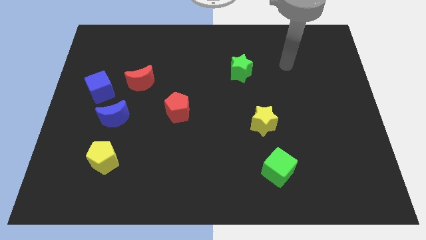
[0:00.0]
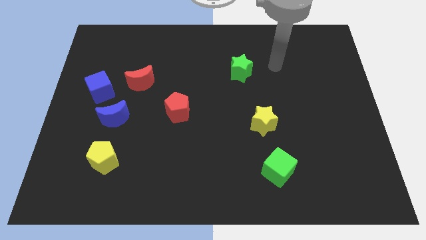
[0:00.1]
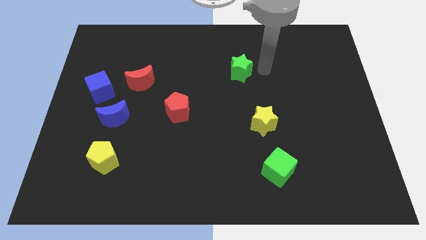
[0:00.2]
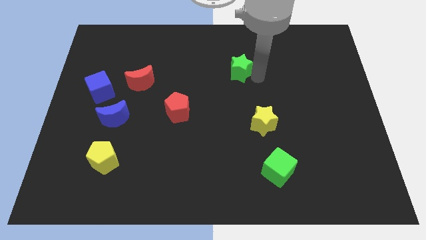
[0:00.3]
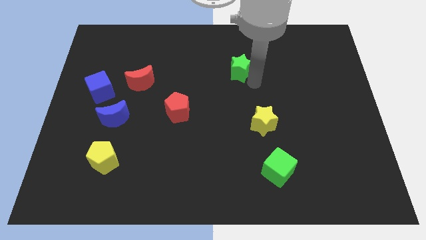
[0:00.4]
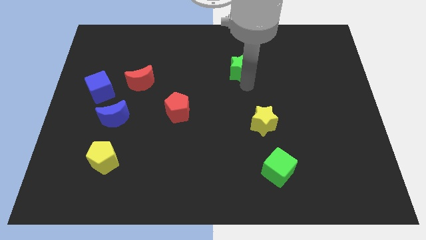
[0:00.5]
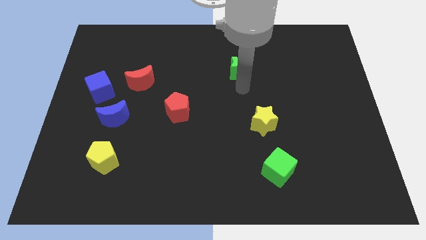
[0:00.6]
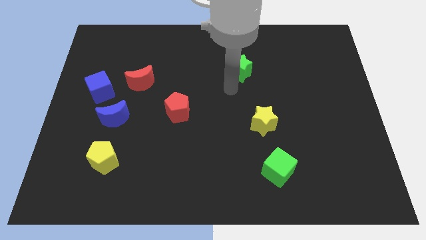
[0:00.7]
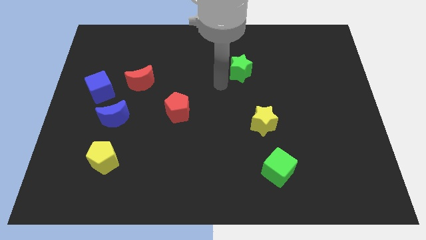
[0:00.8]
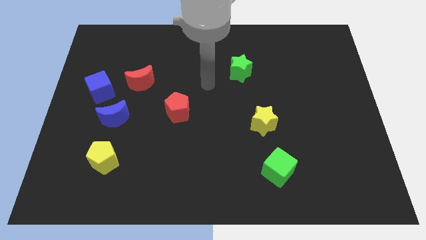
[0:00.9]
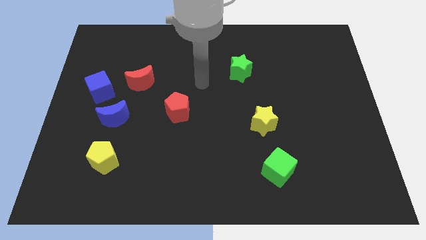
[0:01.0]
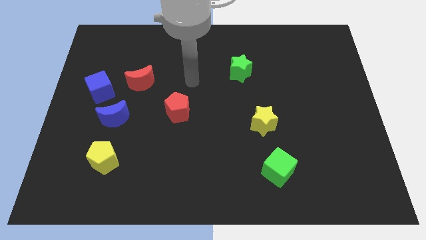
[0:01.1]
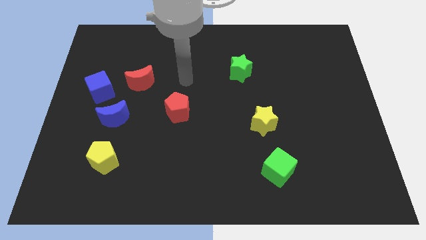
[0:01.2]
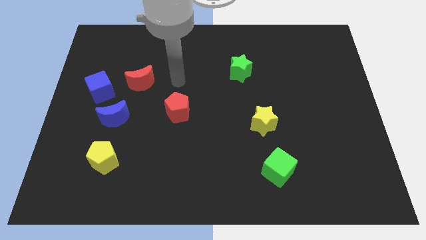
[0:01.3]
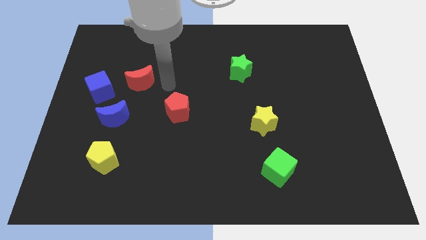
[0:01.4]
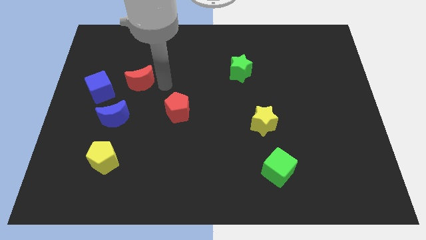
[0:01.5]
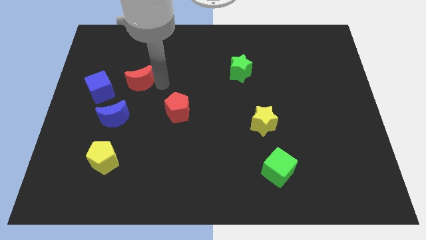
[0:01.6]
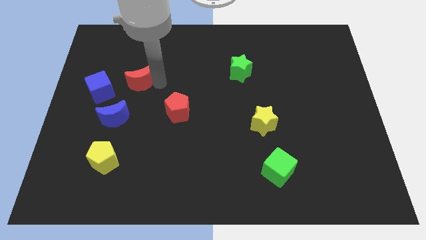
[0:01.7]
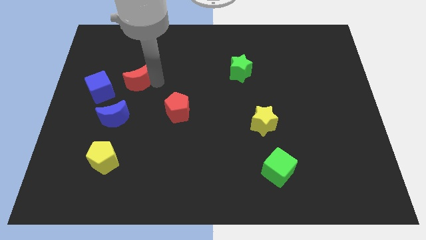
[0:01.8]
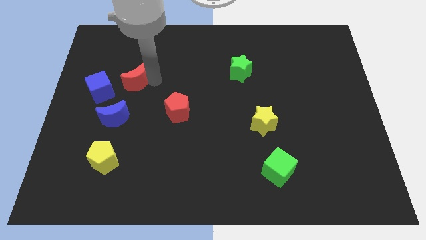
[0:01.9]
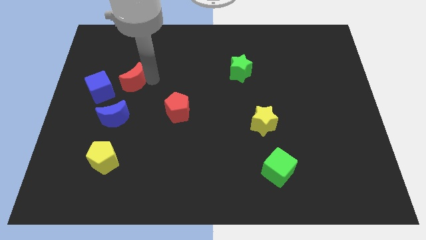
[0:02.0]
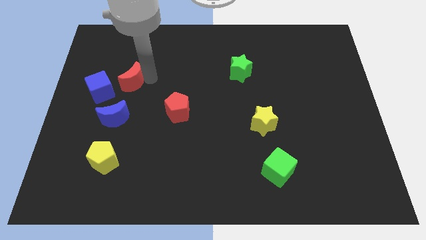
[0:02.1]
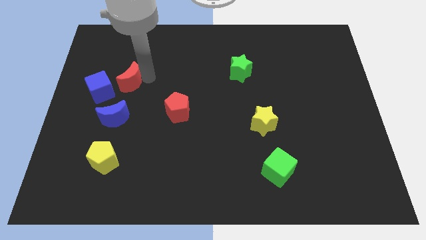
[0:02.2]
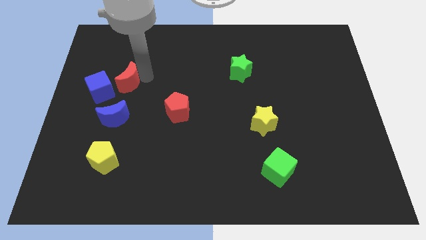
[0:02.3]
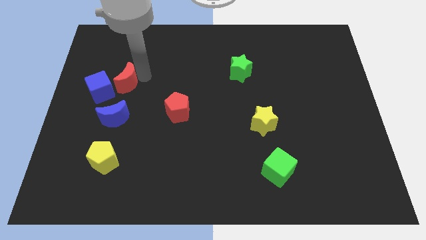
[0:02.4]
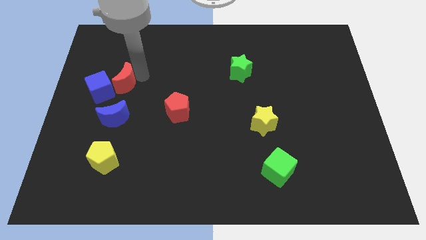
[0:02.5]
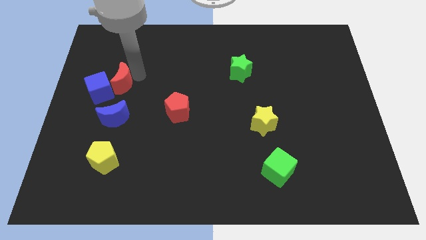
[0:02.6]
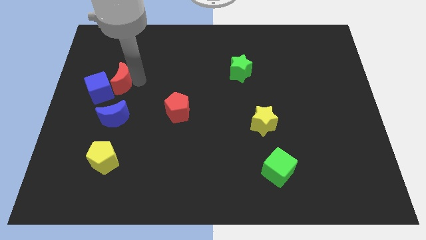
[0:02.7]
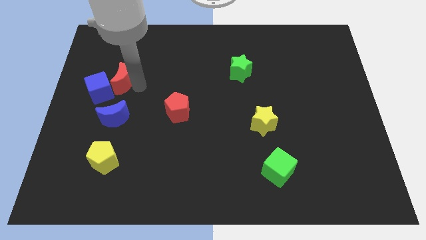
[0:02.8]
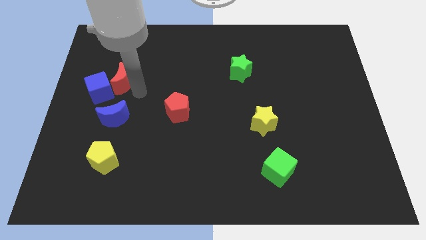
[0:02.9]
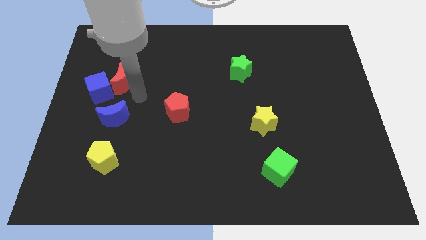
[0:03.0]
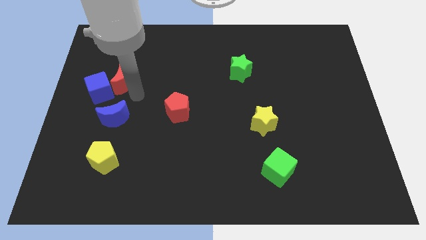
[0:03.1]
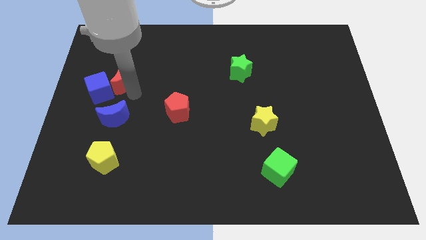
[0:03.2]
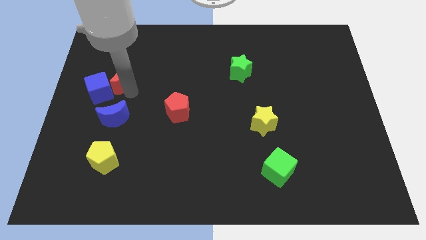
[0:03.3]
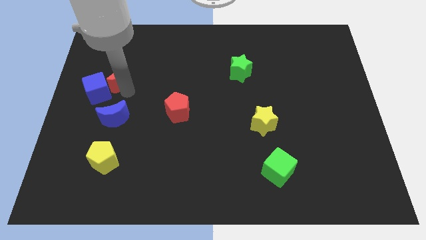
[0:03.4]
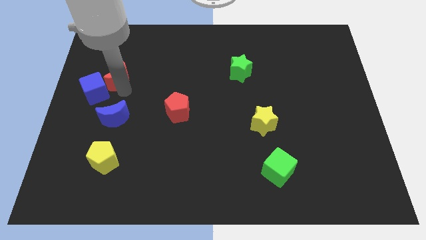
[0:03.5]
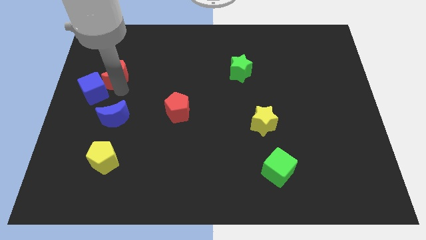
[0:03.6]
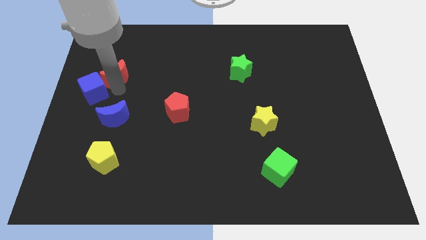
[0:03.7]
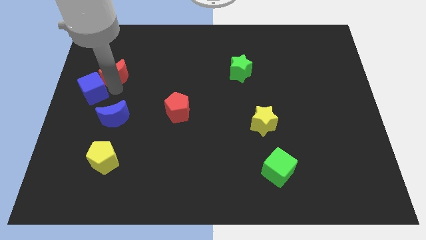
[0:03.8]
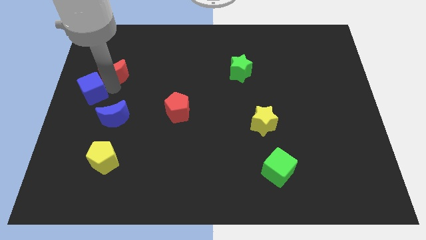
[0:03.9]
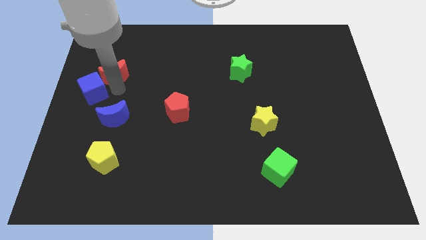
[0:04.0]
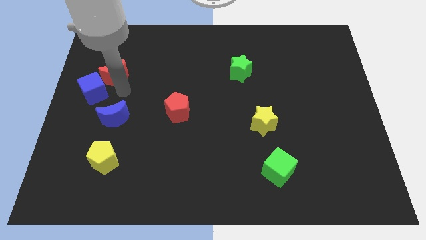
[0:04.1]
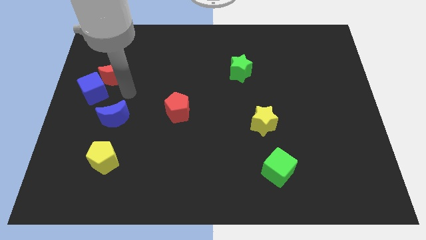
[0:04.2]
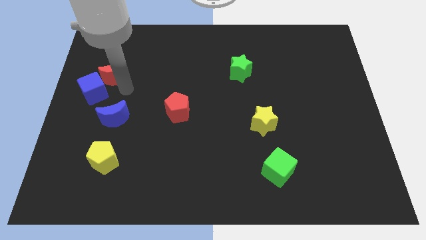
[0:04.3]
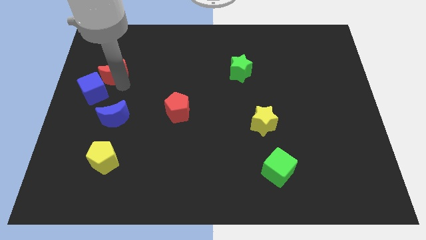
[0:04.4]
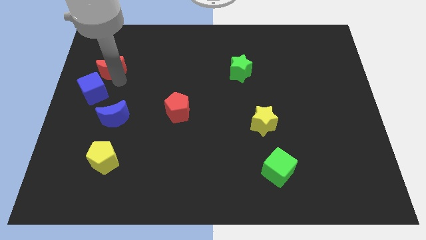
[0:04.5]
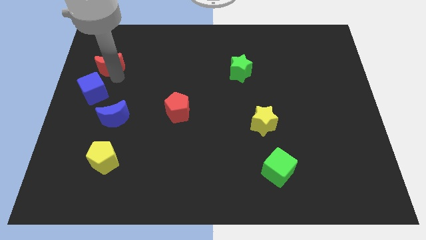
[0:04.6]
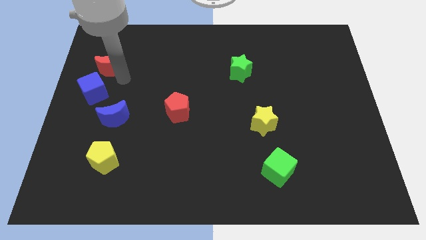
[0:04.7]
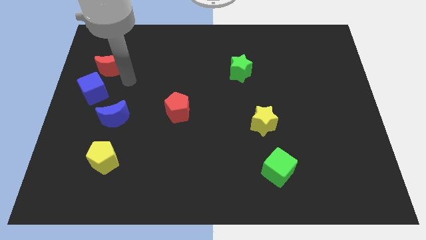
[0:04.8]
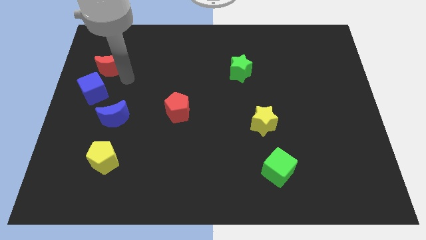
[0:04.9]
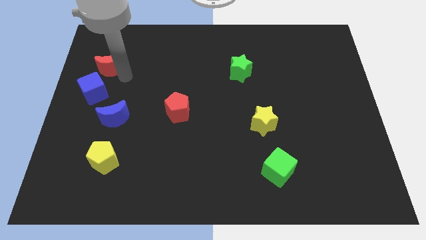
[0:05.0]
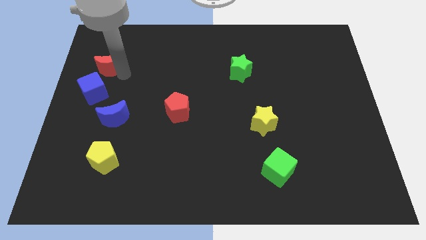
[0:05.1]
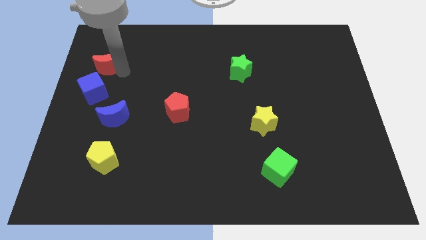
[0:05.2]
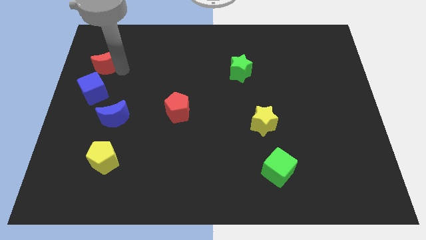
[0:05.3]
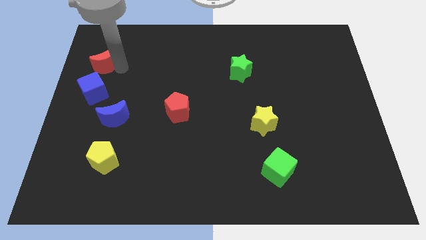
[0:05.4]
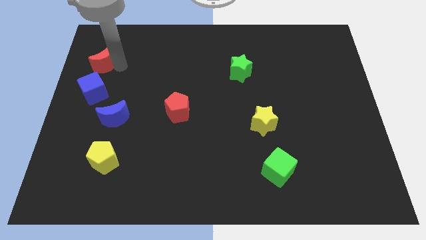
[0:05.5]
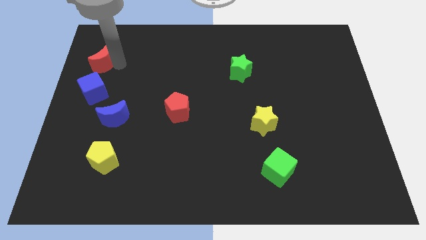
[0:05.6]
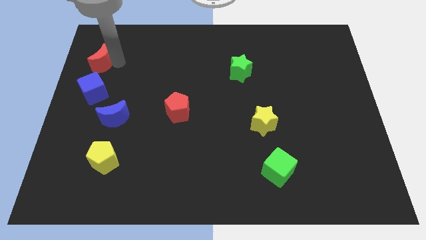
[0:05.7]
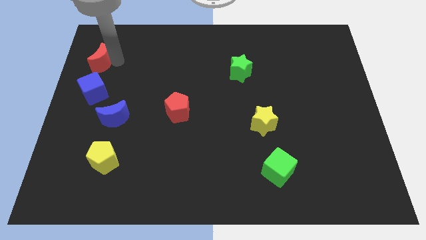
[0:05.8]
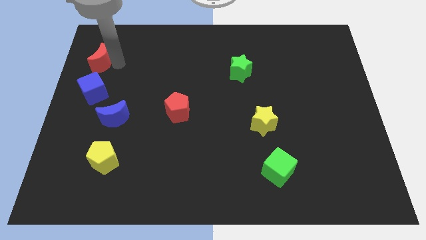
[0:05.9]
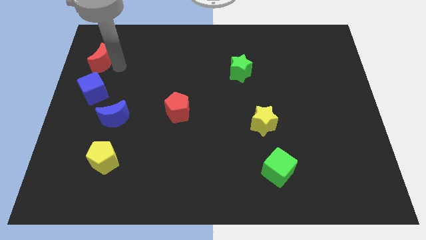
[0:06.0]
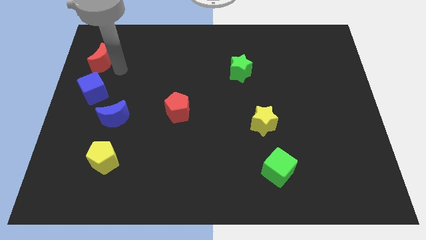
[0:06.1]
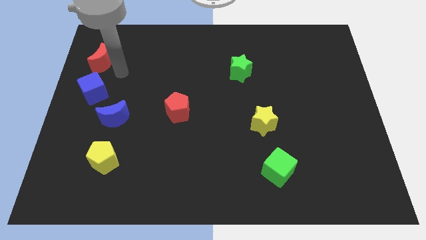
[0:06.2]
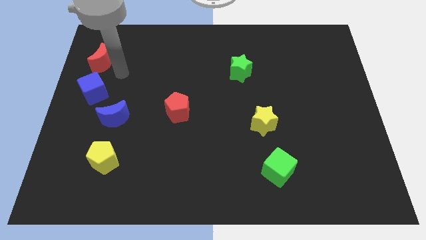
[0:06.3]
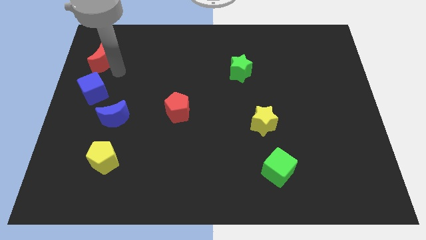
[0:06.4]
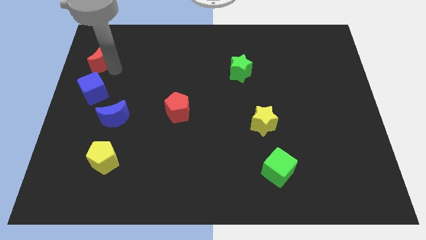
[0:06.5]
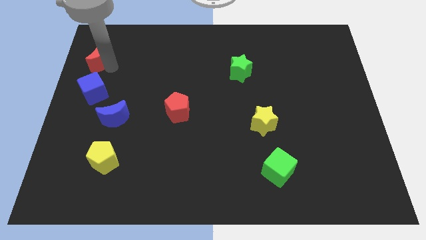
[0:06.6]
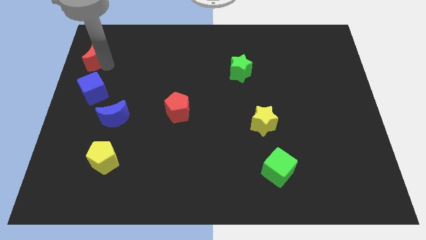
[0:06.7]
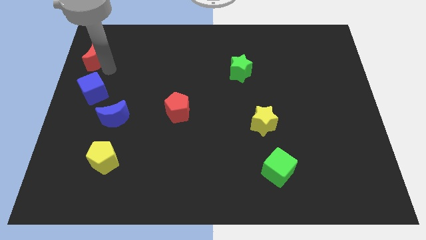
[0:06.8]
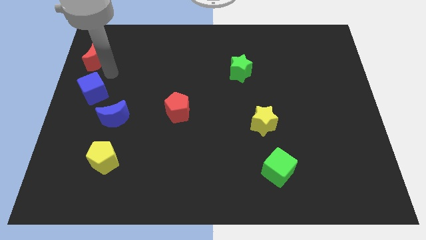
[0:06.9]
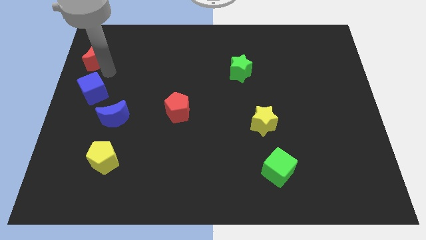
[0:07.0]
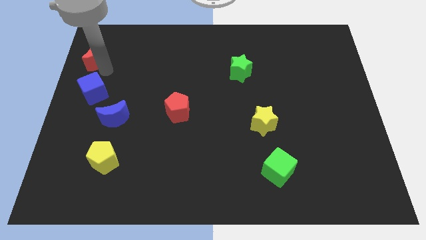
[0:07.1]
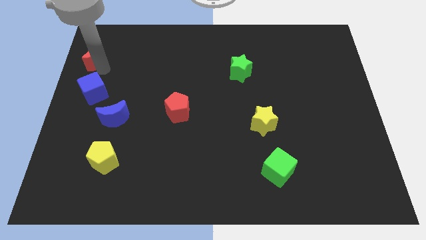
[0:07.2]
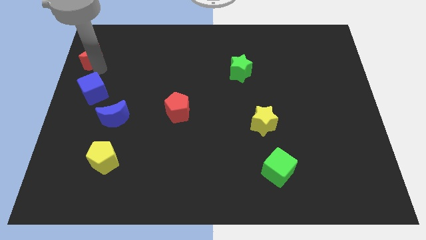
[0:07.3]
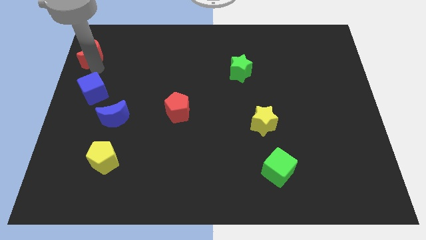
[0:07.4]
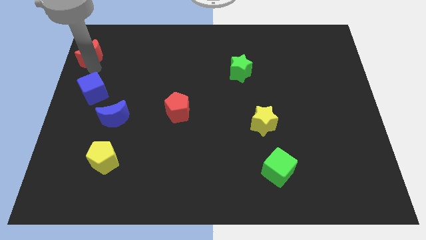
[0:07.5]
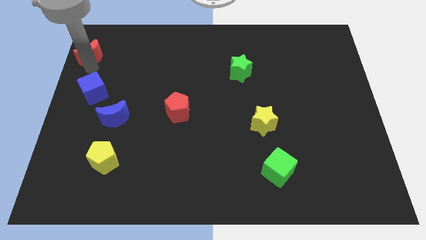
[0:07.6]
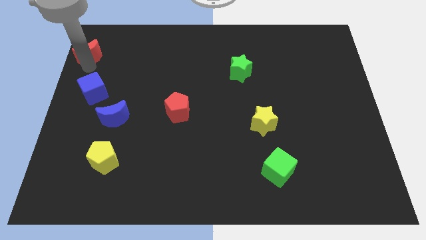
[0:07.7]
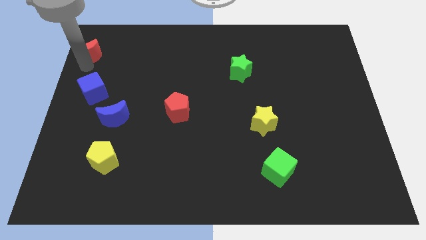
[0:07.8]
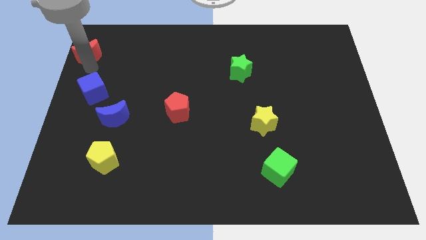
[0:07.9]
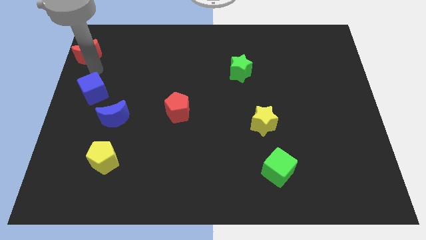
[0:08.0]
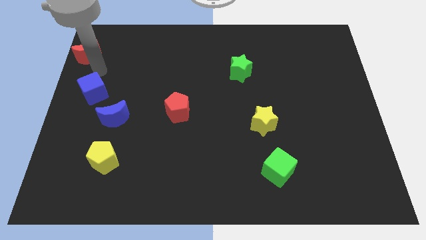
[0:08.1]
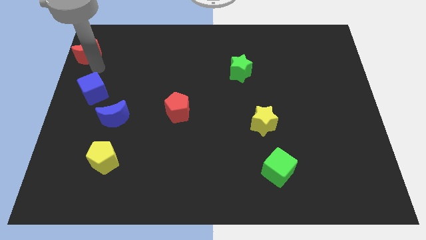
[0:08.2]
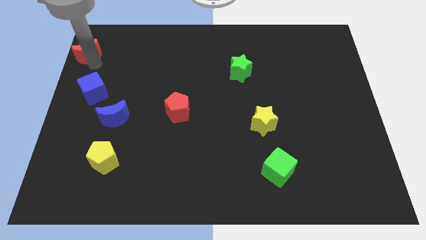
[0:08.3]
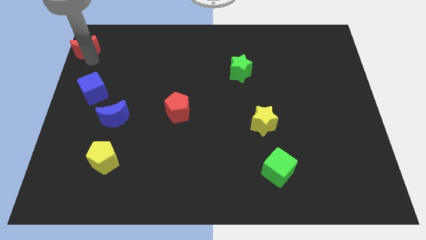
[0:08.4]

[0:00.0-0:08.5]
put the red moon to the top left of the board
